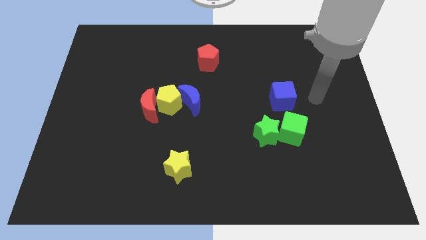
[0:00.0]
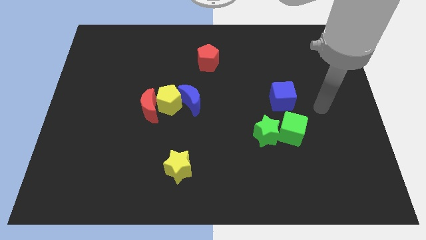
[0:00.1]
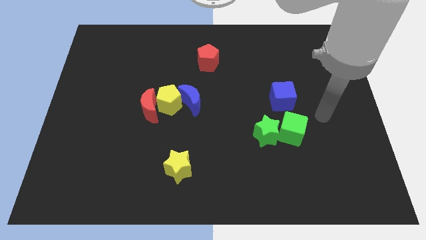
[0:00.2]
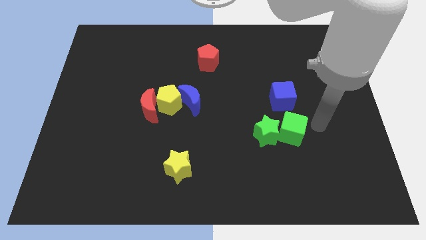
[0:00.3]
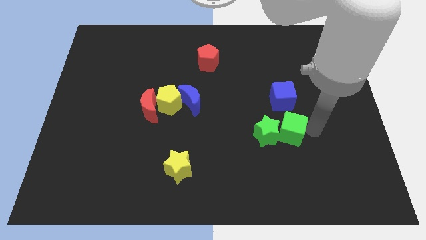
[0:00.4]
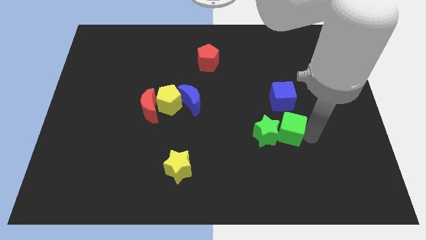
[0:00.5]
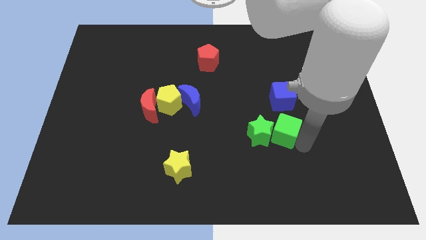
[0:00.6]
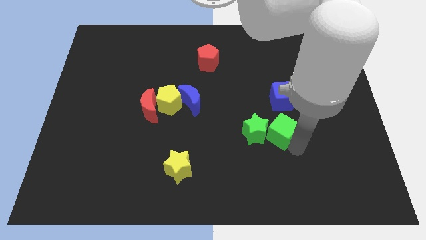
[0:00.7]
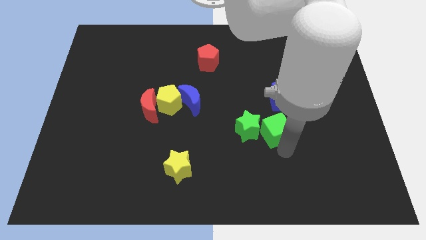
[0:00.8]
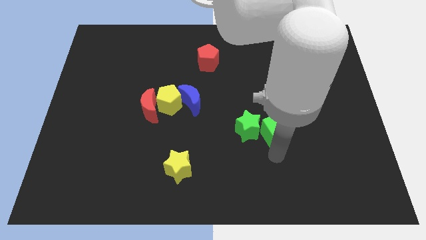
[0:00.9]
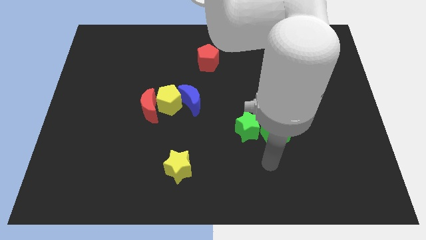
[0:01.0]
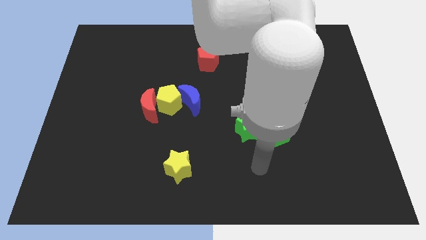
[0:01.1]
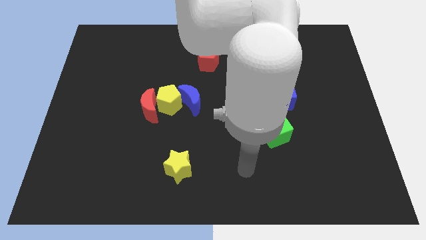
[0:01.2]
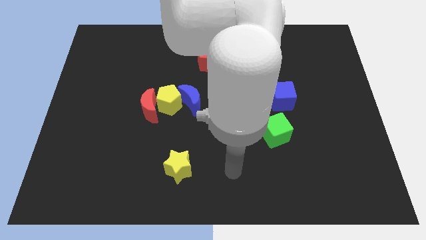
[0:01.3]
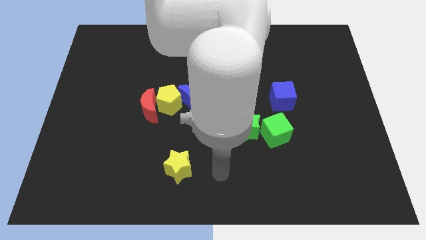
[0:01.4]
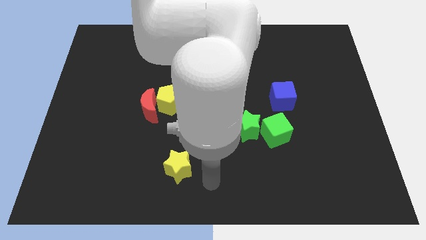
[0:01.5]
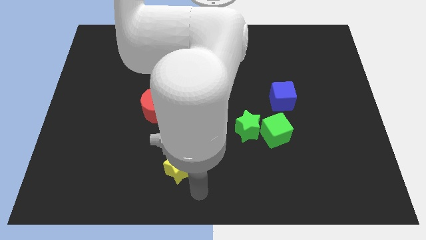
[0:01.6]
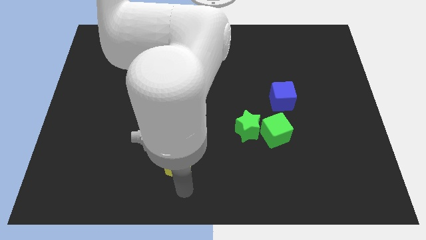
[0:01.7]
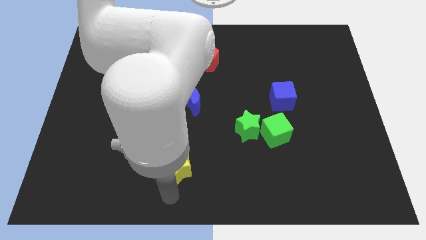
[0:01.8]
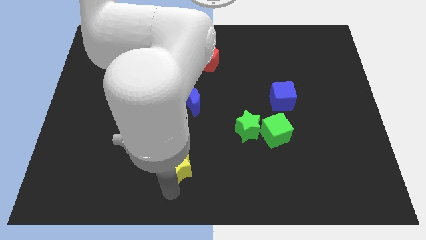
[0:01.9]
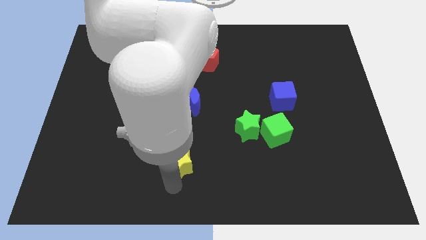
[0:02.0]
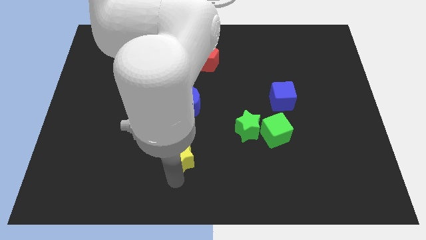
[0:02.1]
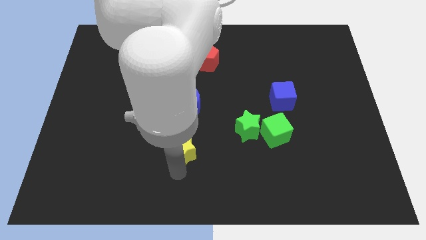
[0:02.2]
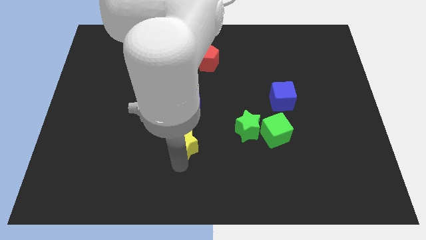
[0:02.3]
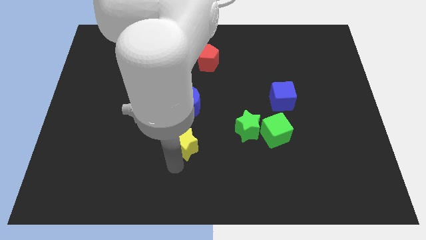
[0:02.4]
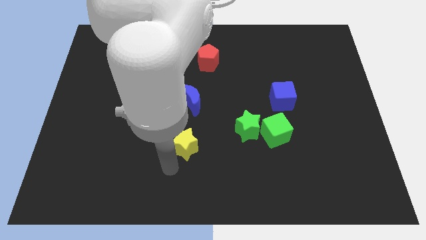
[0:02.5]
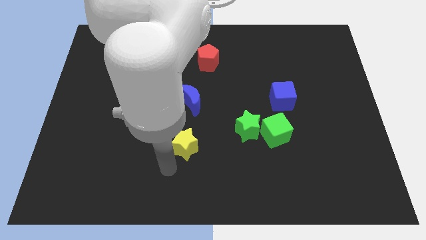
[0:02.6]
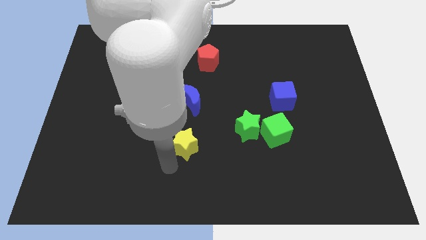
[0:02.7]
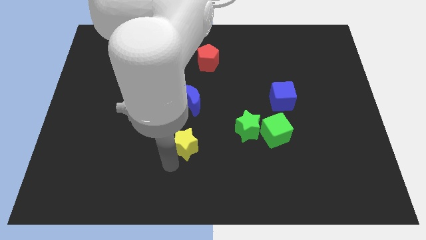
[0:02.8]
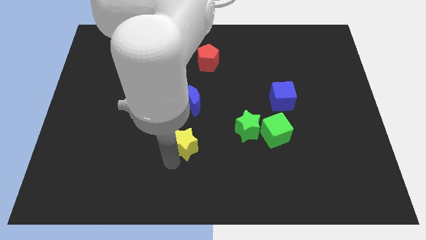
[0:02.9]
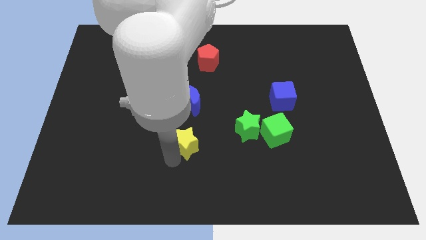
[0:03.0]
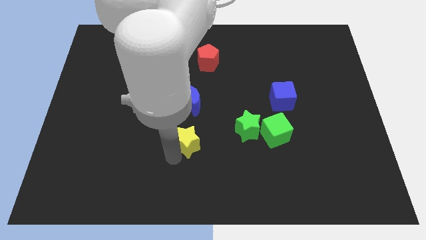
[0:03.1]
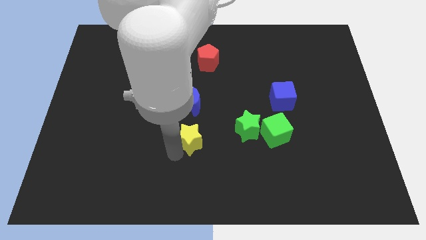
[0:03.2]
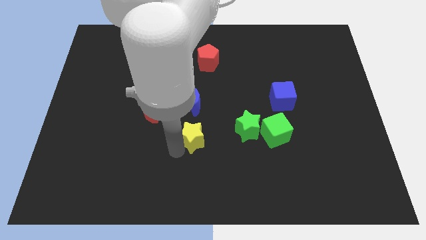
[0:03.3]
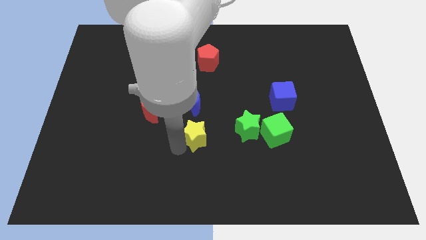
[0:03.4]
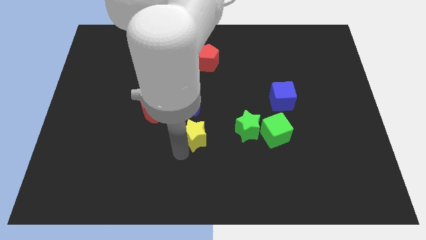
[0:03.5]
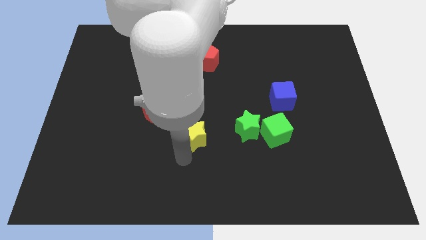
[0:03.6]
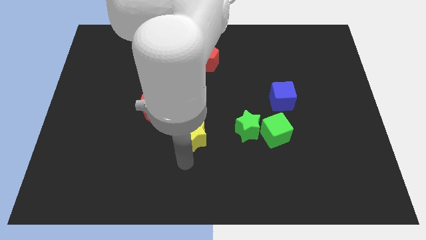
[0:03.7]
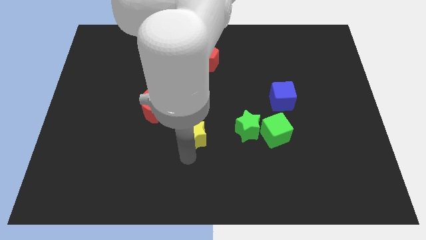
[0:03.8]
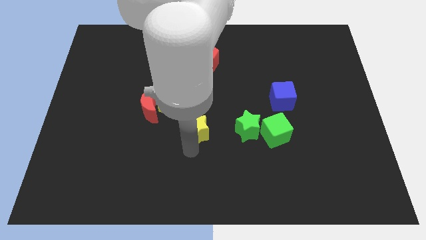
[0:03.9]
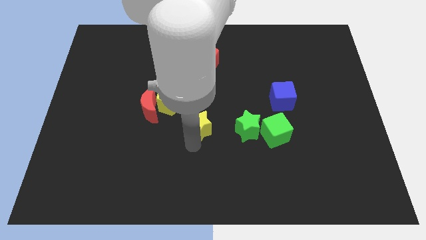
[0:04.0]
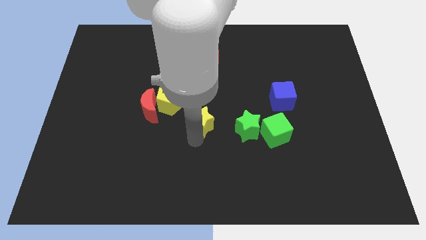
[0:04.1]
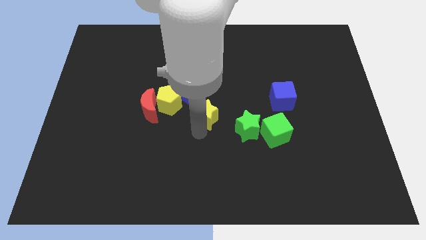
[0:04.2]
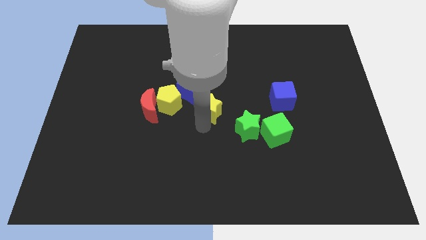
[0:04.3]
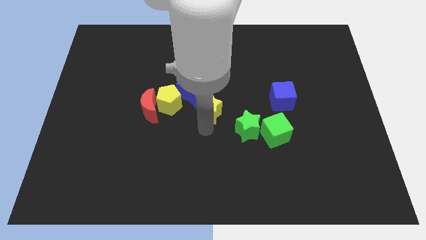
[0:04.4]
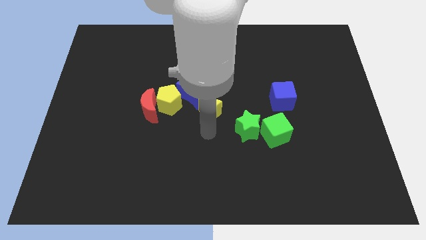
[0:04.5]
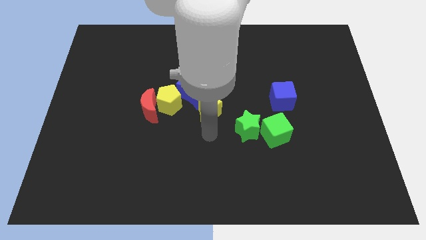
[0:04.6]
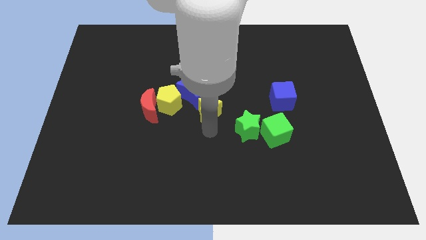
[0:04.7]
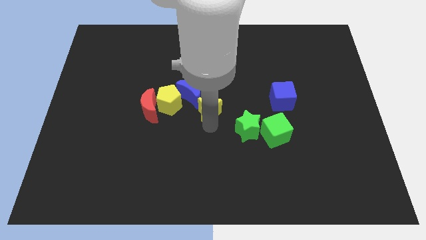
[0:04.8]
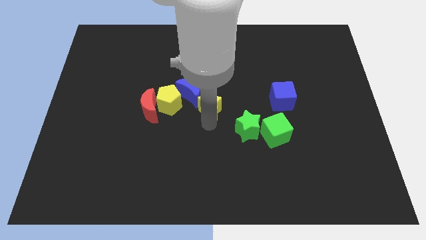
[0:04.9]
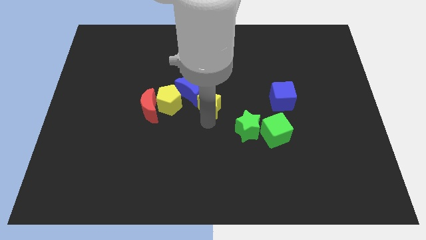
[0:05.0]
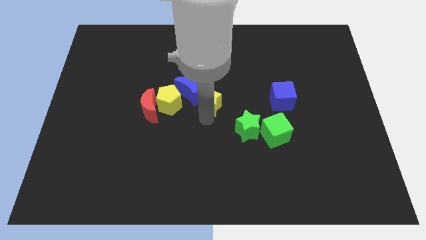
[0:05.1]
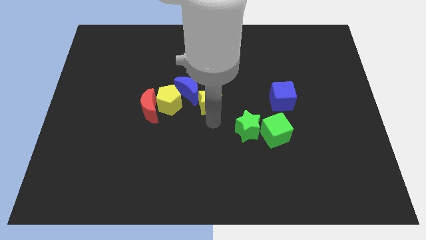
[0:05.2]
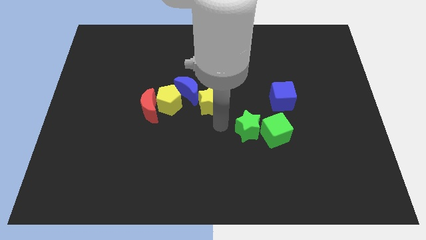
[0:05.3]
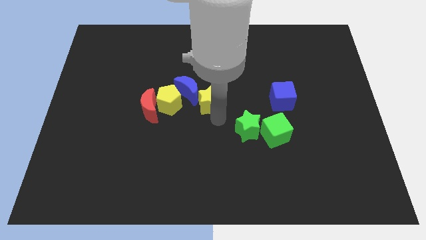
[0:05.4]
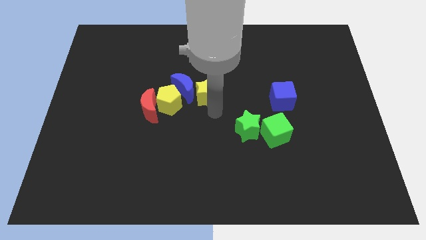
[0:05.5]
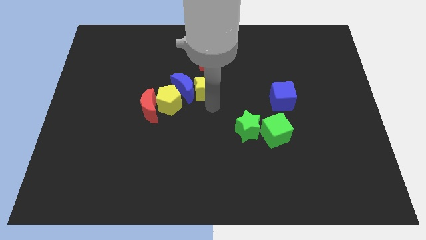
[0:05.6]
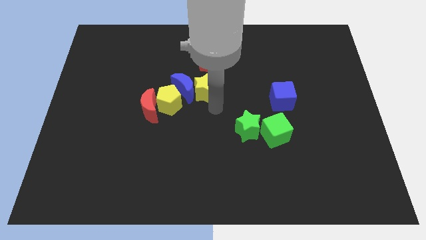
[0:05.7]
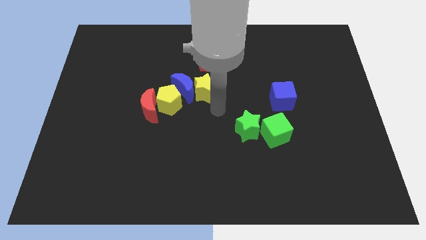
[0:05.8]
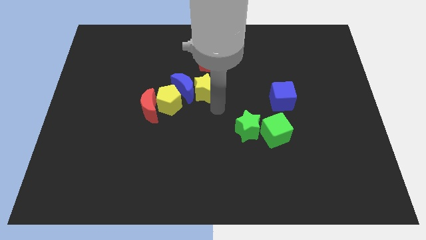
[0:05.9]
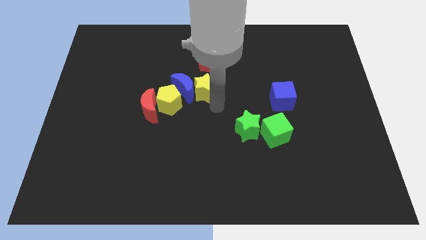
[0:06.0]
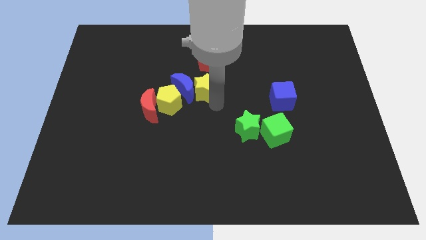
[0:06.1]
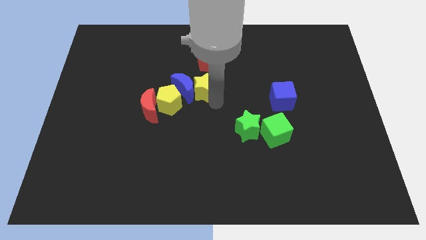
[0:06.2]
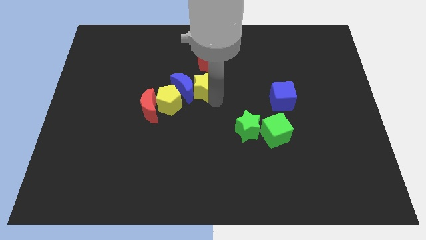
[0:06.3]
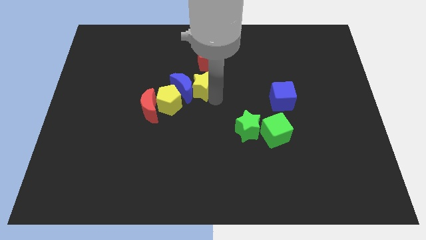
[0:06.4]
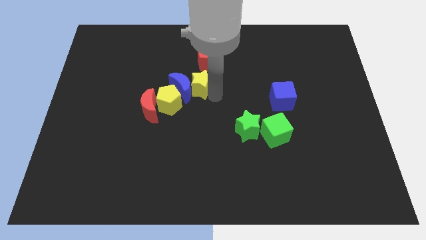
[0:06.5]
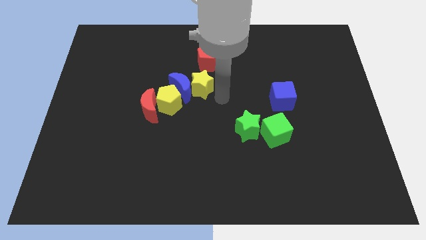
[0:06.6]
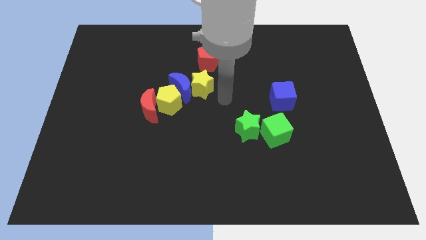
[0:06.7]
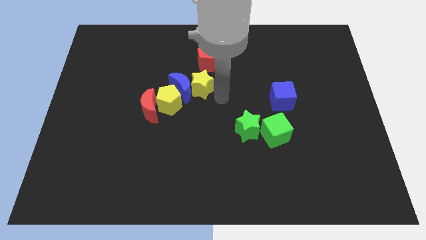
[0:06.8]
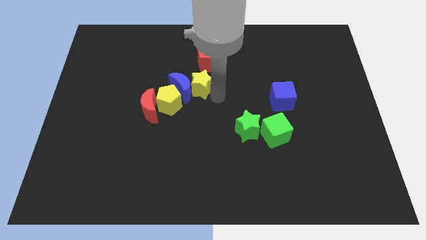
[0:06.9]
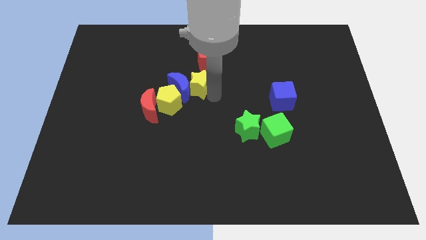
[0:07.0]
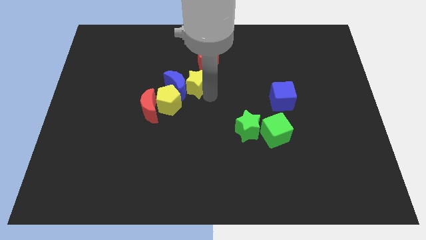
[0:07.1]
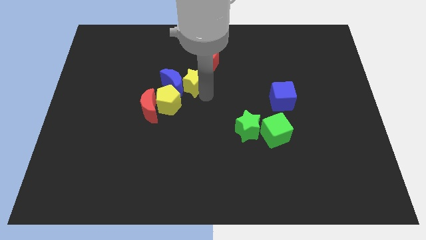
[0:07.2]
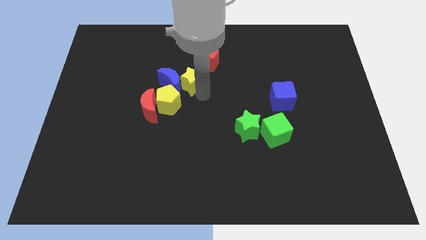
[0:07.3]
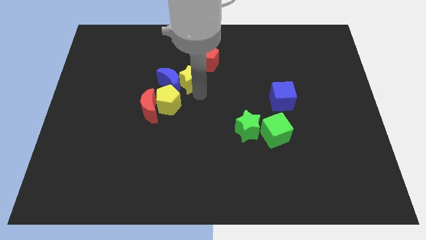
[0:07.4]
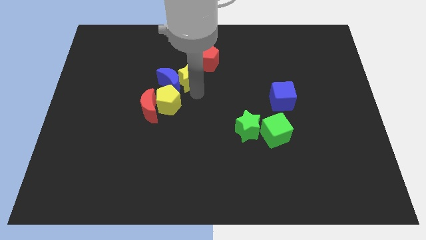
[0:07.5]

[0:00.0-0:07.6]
move the yellow star above the yellow pentagon
